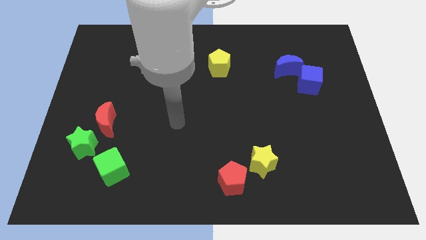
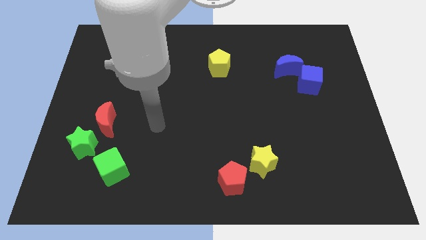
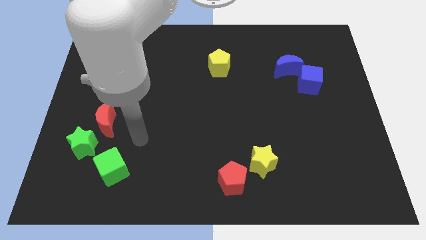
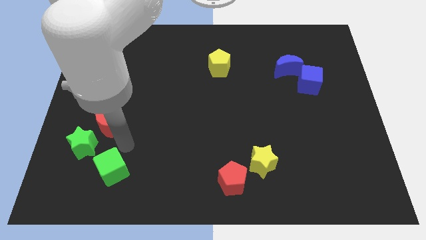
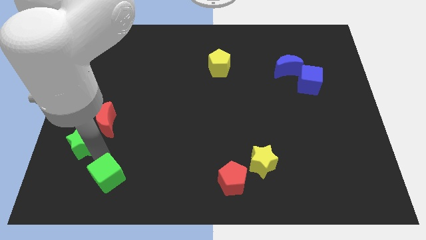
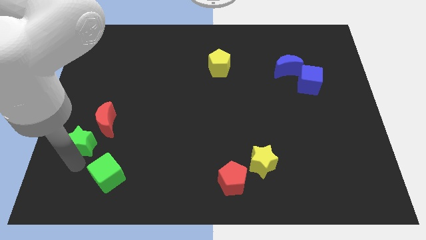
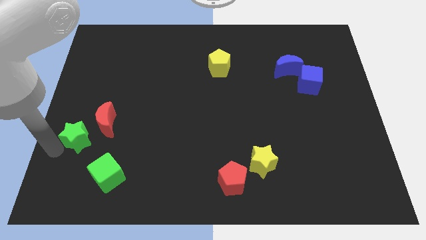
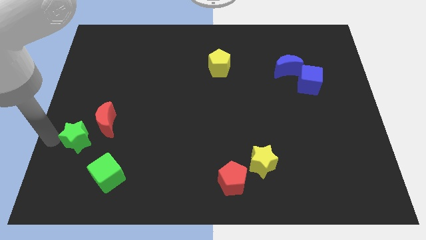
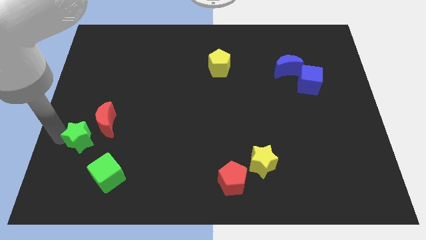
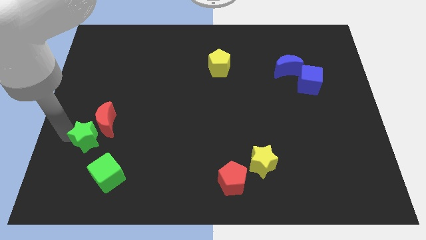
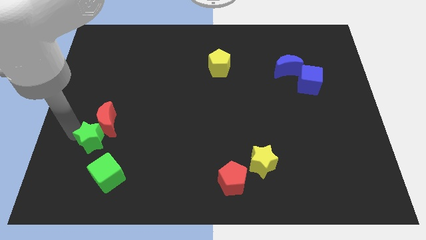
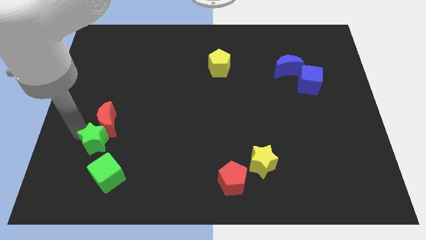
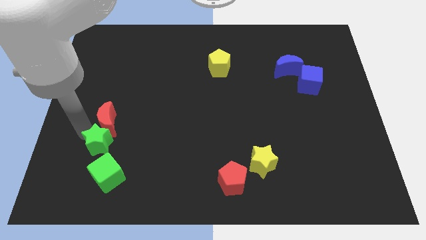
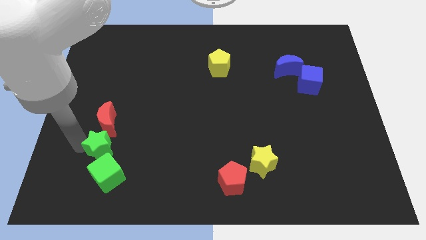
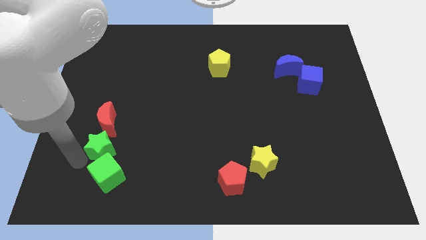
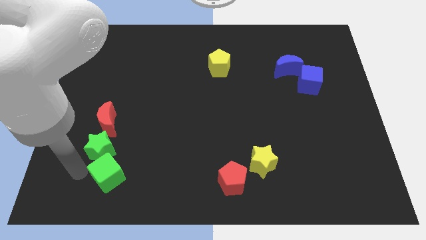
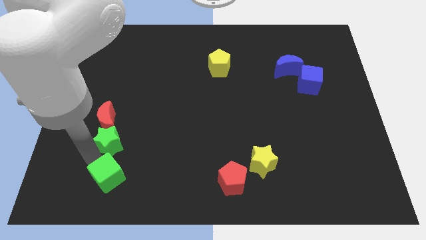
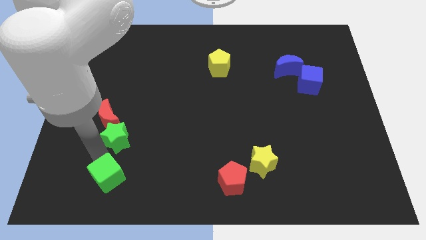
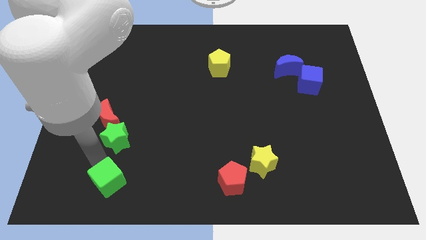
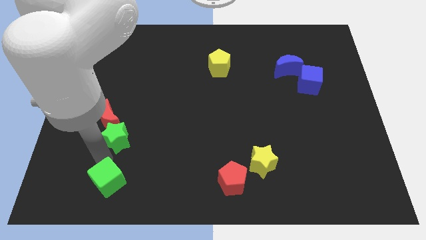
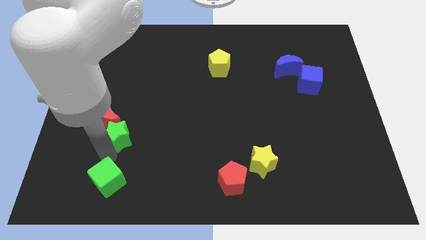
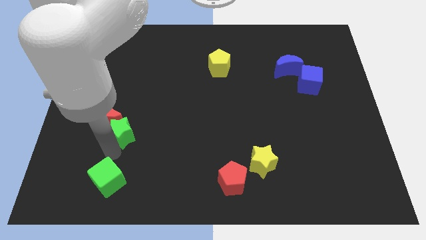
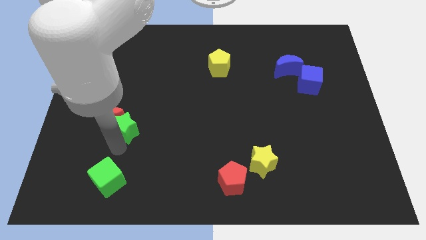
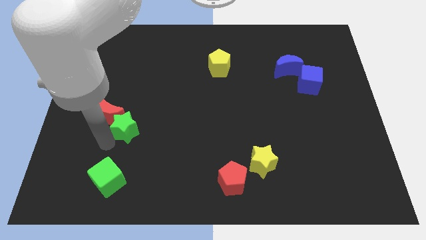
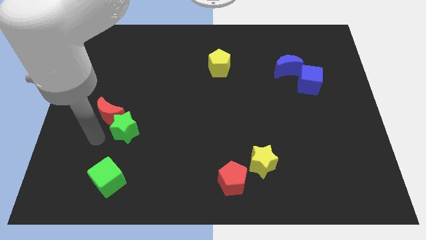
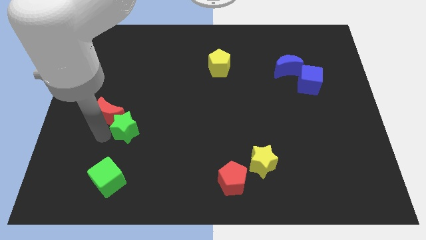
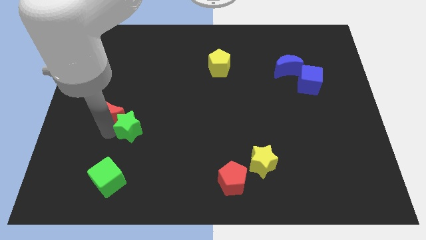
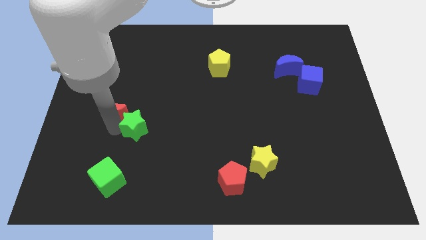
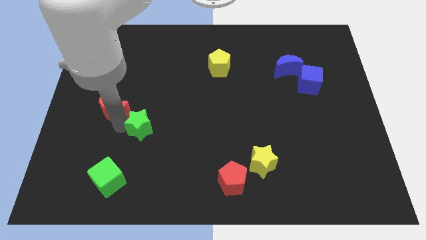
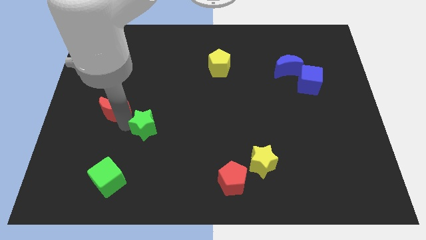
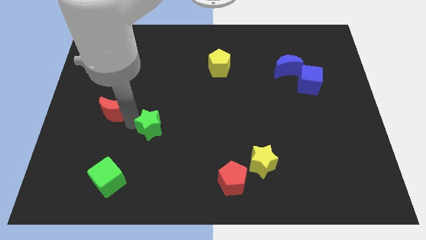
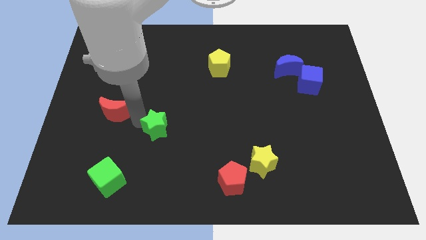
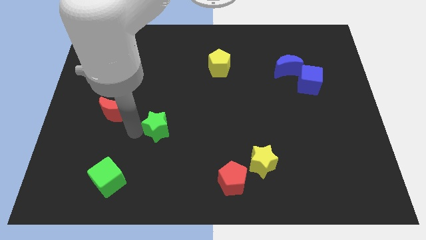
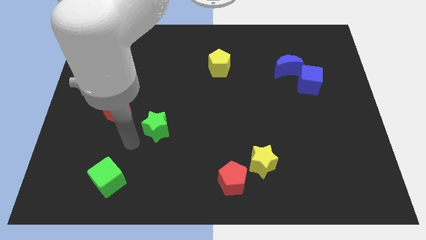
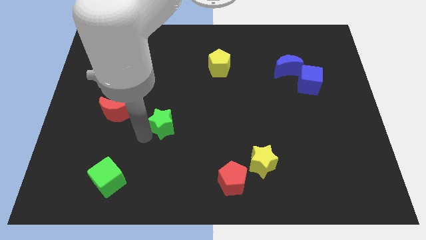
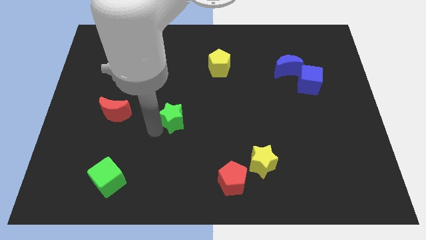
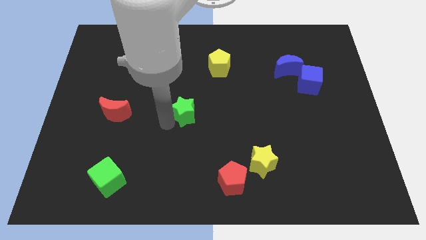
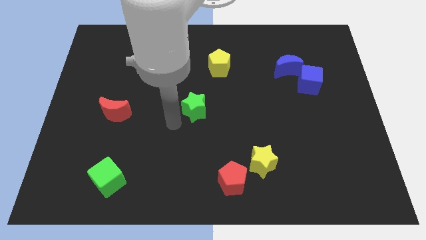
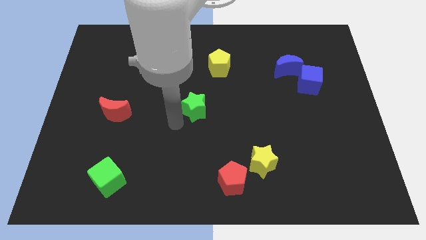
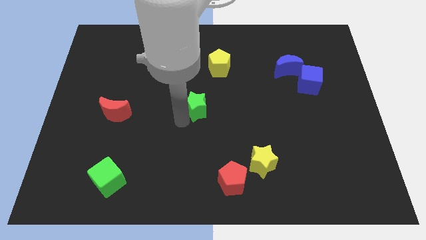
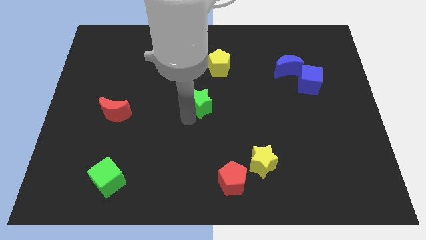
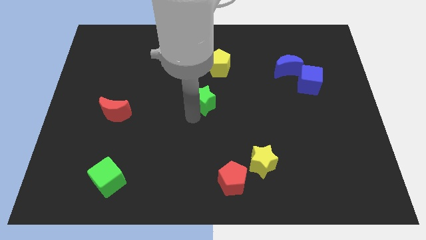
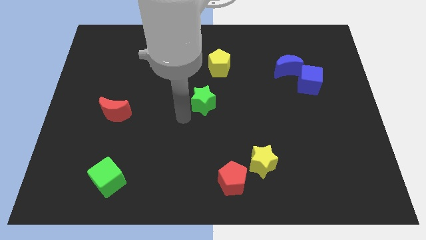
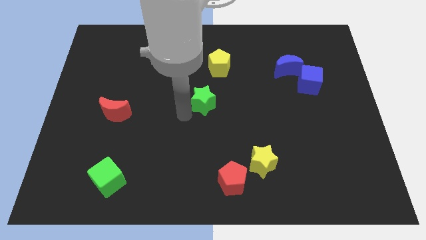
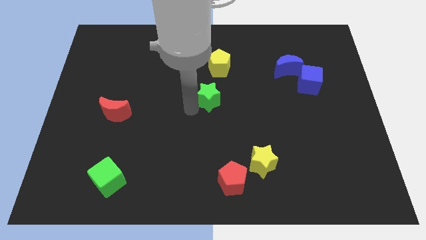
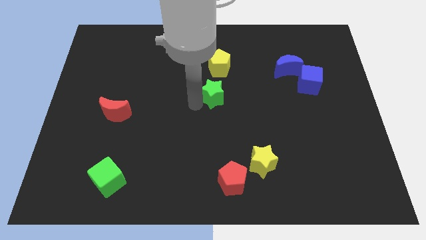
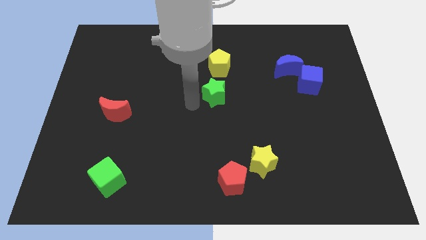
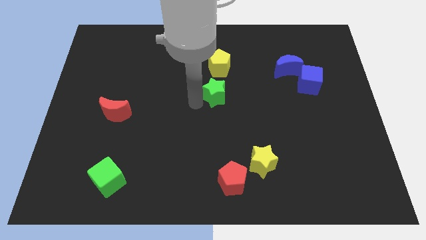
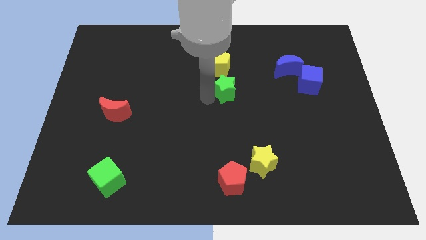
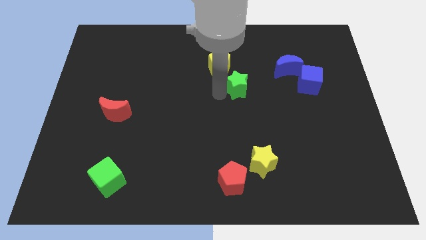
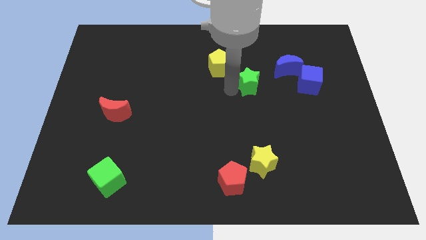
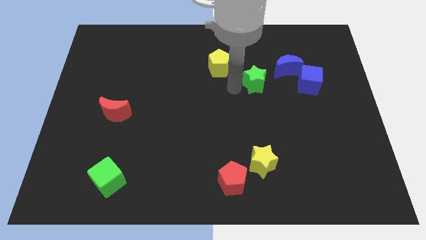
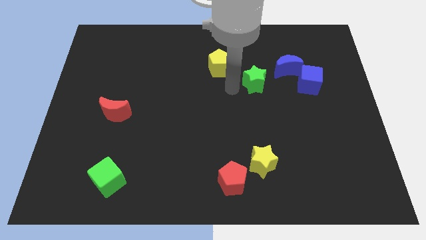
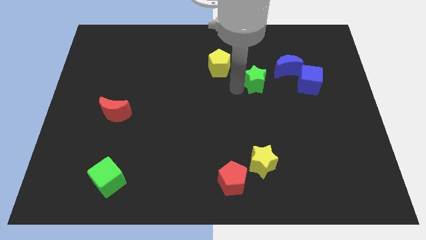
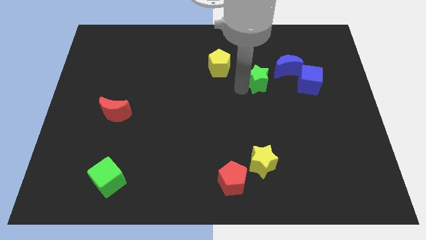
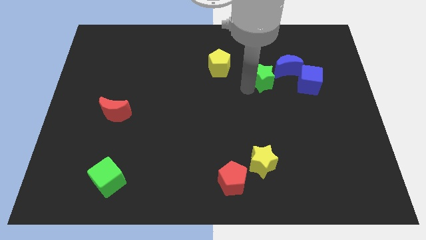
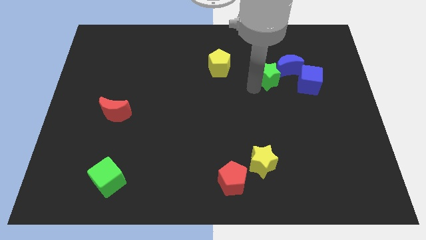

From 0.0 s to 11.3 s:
move the green star next to the blue moon

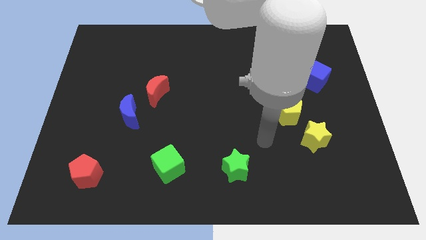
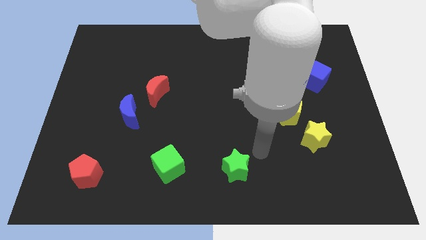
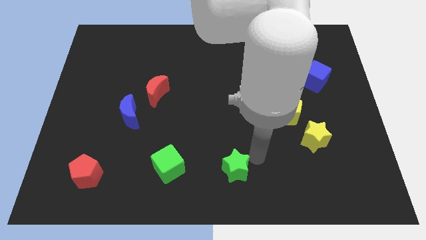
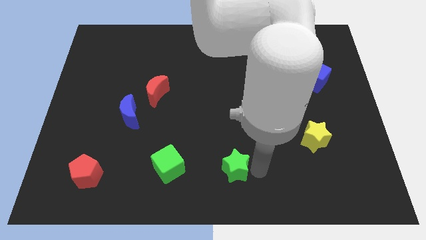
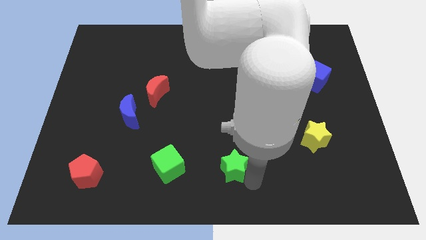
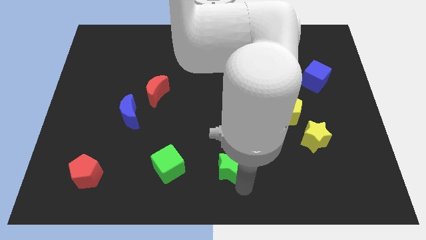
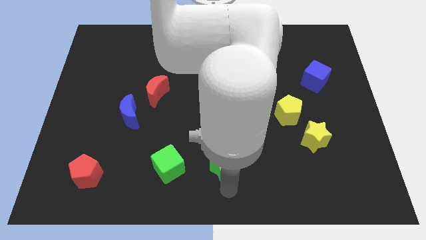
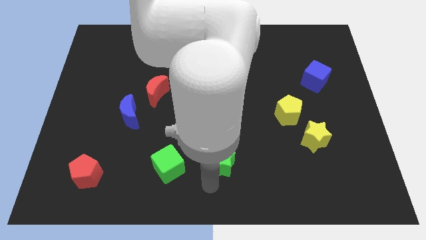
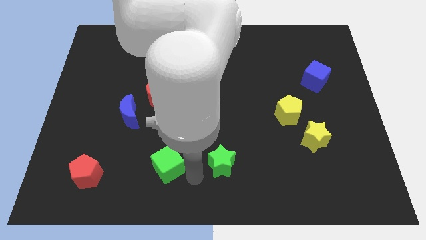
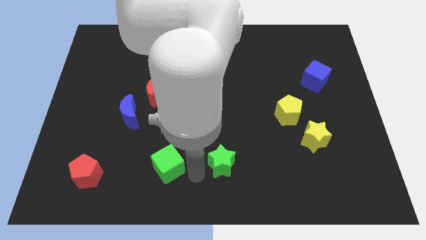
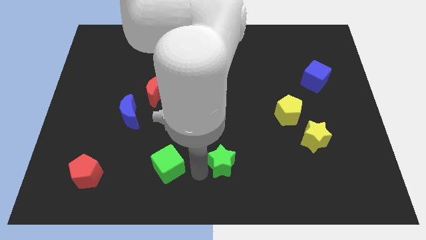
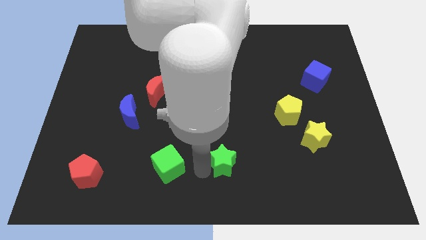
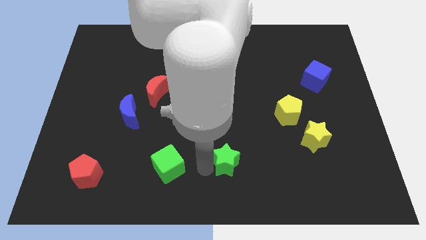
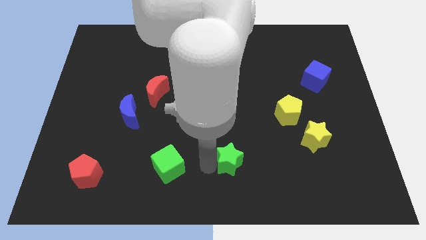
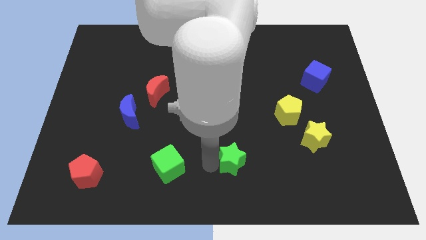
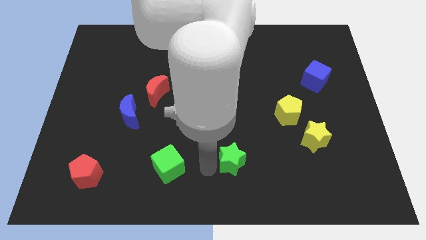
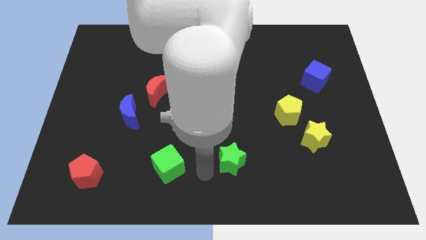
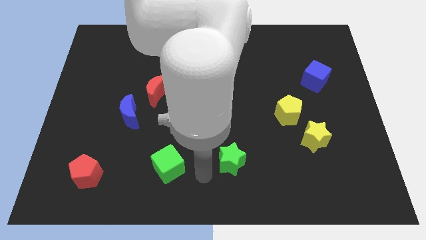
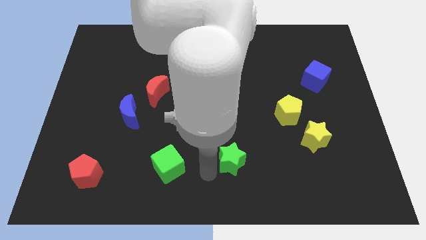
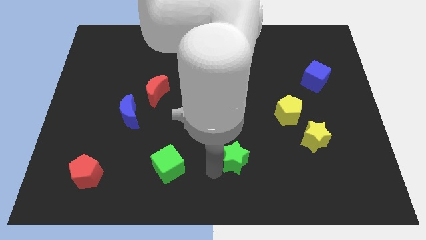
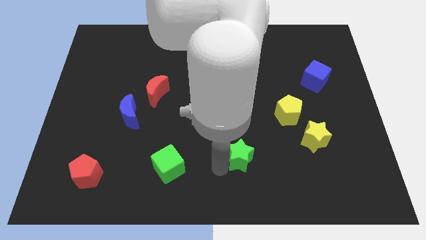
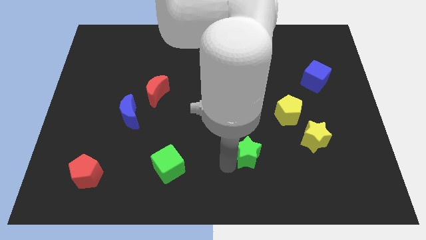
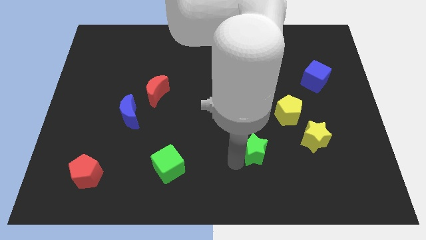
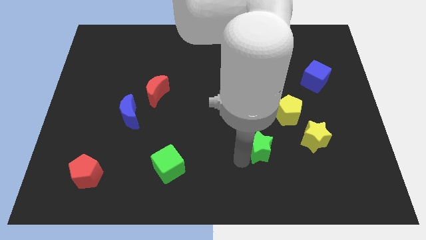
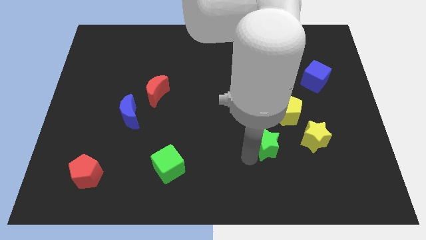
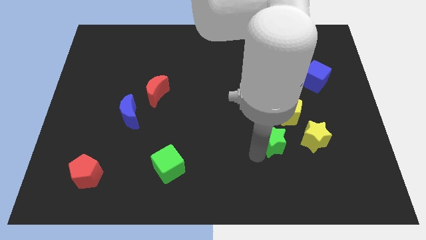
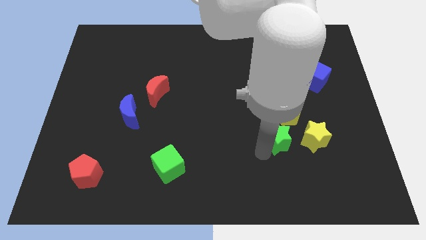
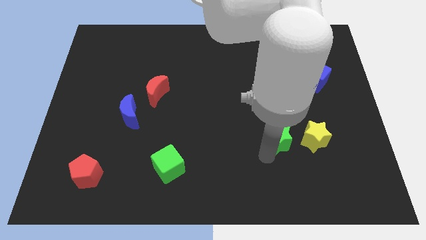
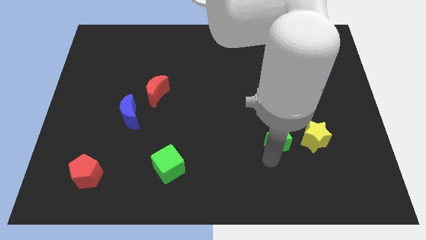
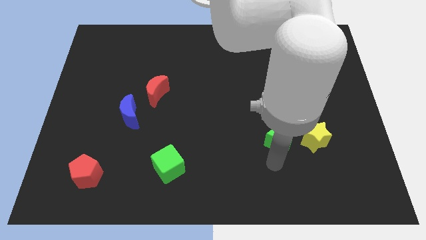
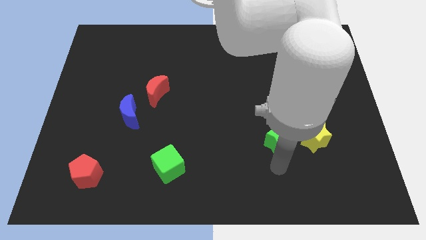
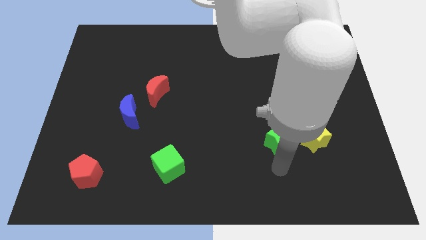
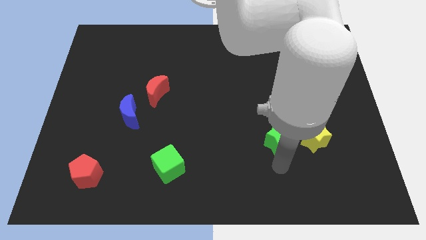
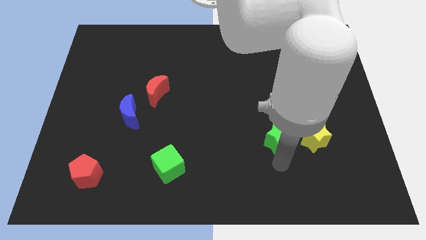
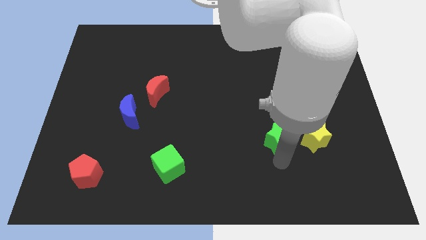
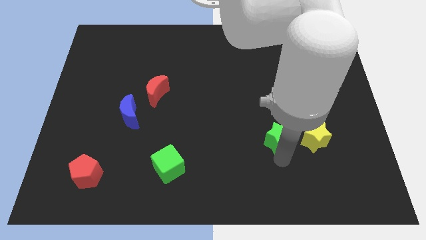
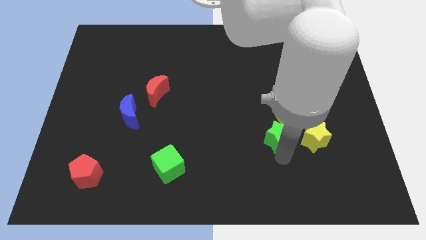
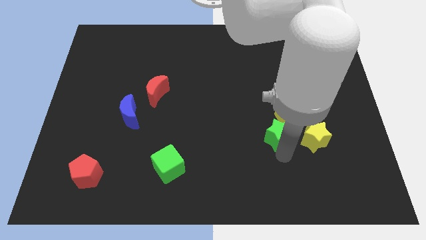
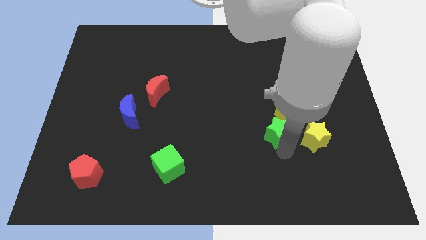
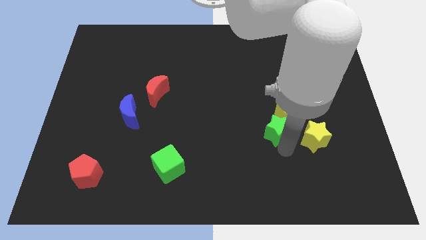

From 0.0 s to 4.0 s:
put the green star towards the yellow pentagon
